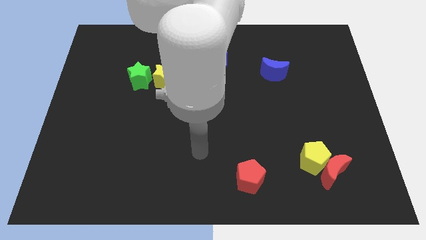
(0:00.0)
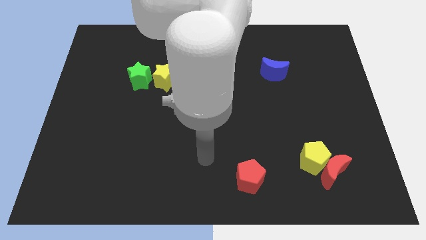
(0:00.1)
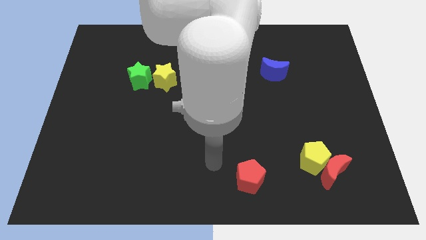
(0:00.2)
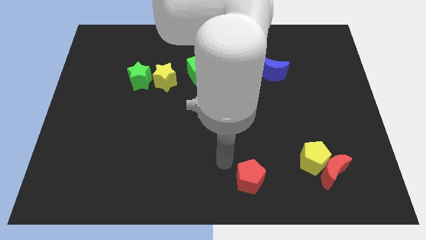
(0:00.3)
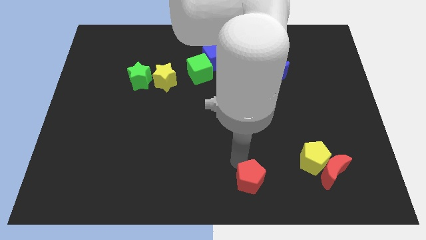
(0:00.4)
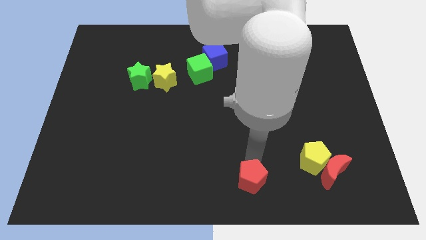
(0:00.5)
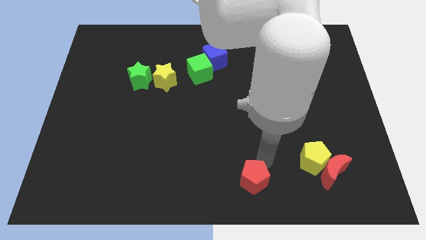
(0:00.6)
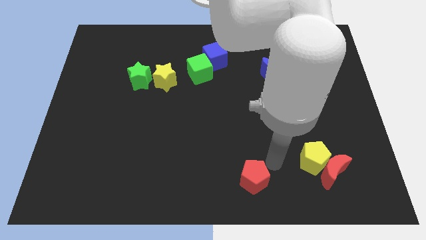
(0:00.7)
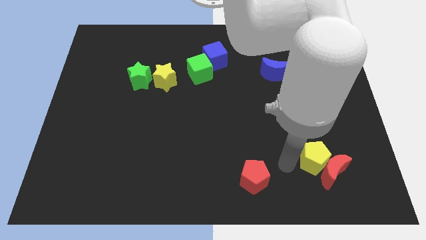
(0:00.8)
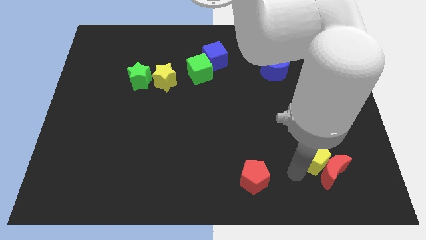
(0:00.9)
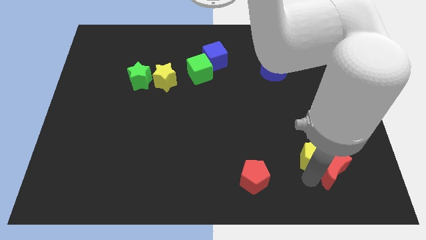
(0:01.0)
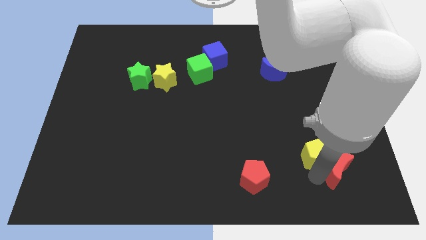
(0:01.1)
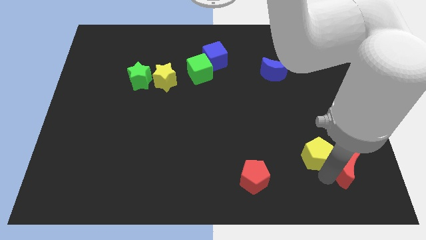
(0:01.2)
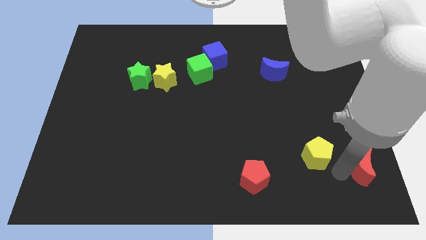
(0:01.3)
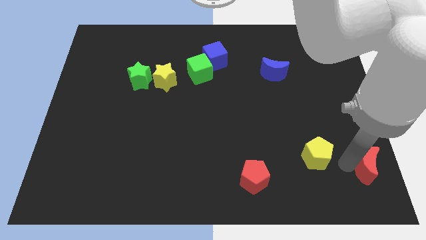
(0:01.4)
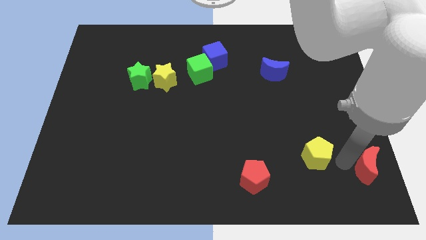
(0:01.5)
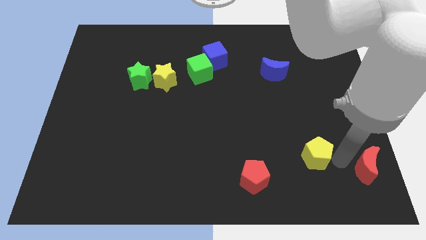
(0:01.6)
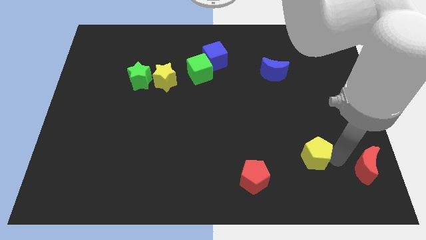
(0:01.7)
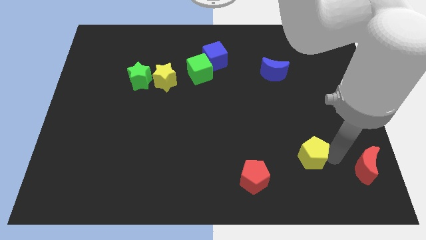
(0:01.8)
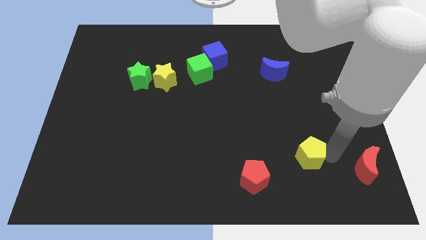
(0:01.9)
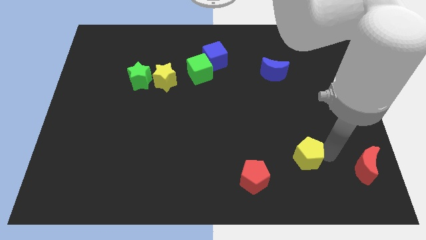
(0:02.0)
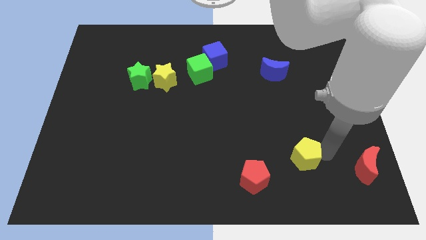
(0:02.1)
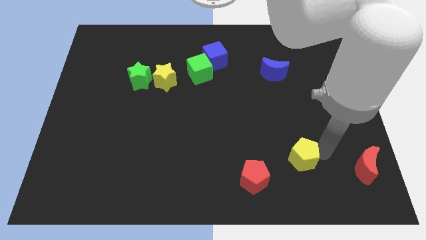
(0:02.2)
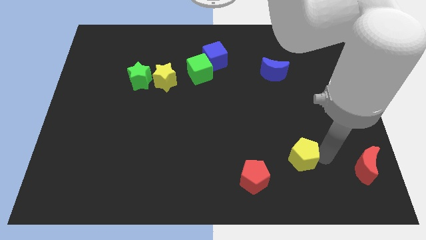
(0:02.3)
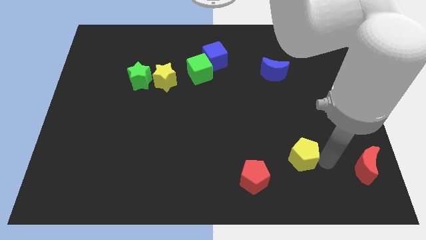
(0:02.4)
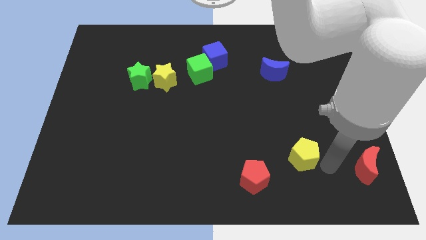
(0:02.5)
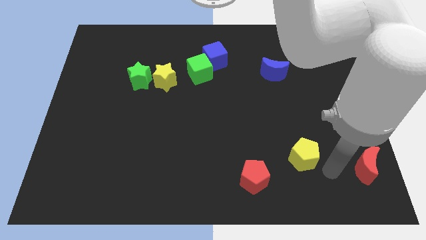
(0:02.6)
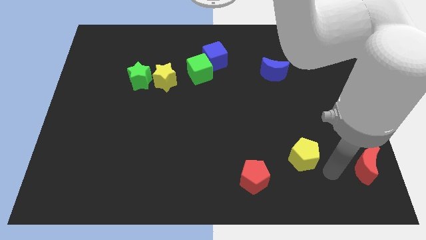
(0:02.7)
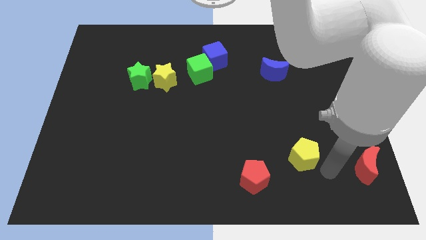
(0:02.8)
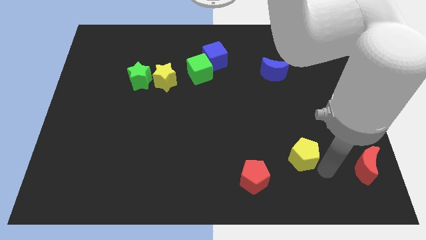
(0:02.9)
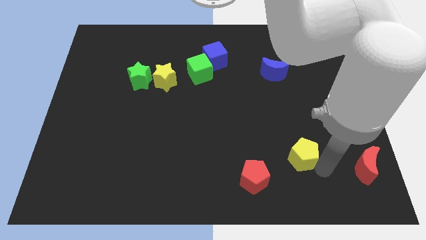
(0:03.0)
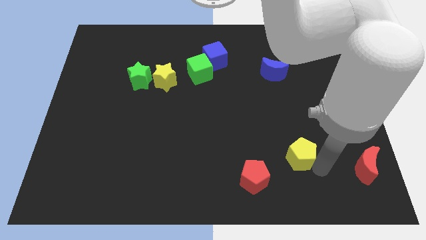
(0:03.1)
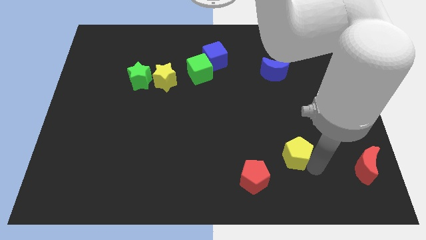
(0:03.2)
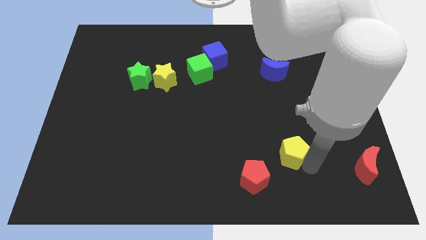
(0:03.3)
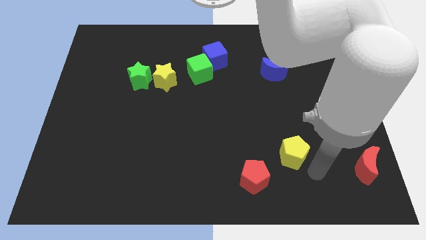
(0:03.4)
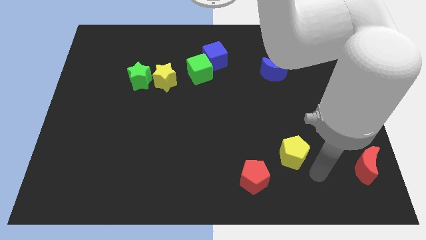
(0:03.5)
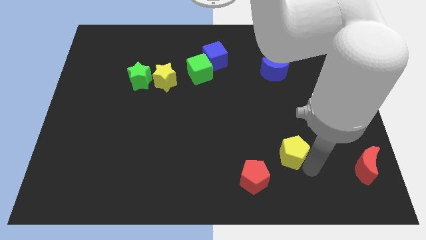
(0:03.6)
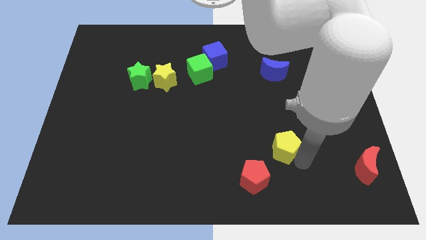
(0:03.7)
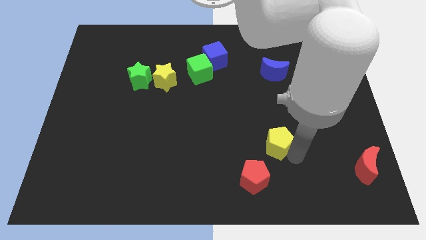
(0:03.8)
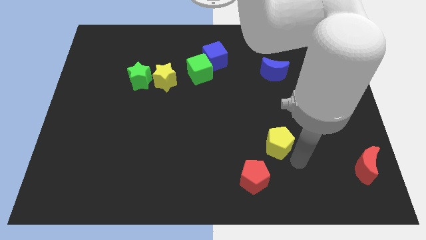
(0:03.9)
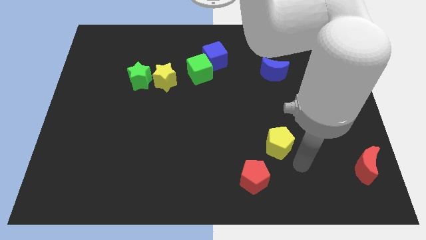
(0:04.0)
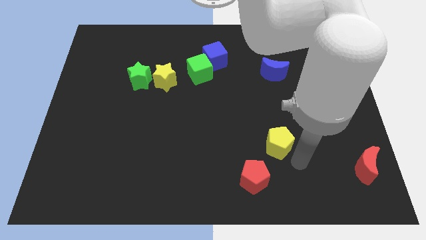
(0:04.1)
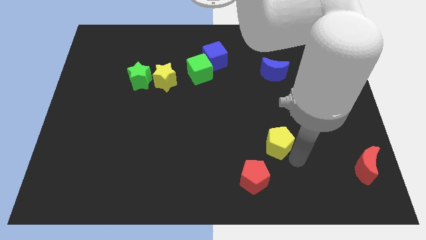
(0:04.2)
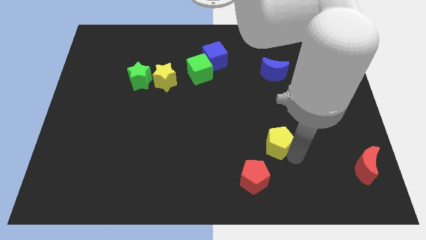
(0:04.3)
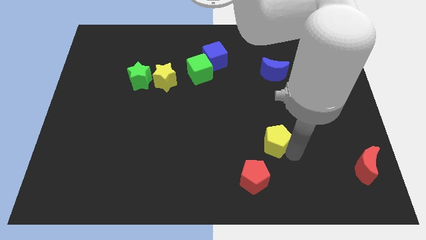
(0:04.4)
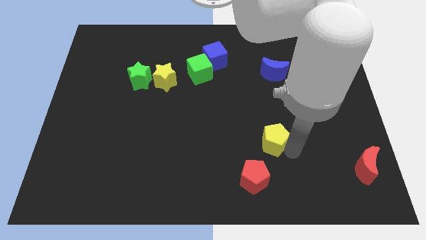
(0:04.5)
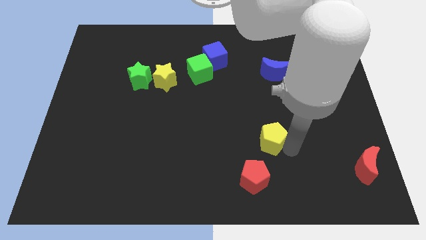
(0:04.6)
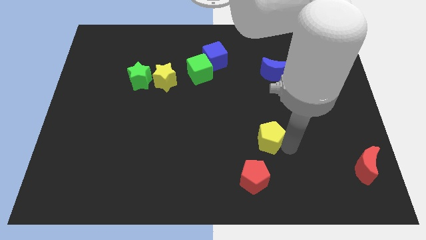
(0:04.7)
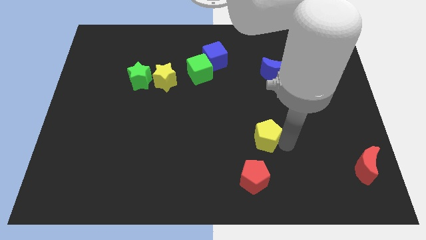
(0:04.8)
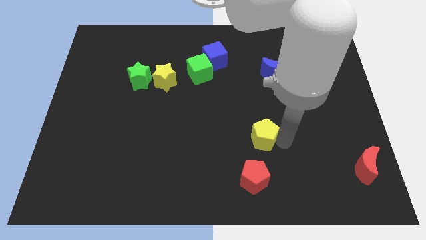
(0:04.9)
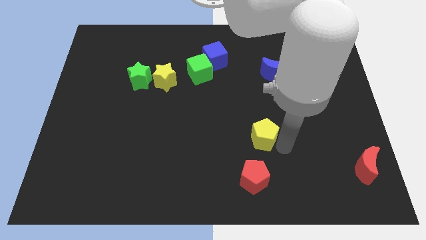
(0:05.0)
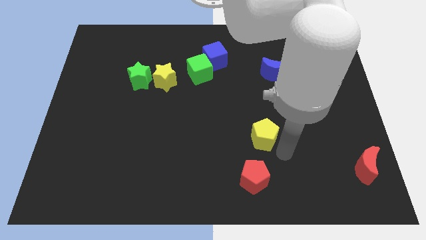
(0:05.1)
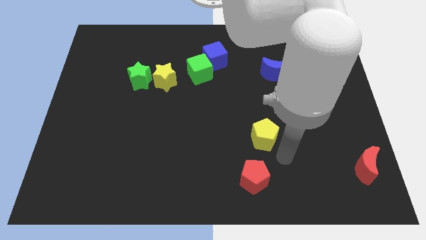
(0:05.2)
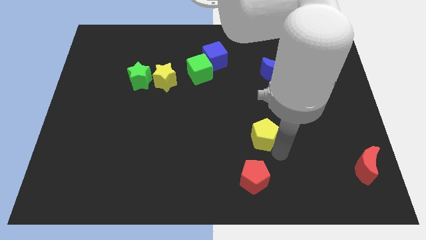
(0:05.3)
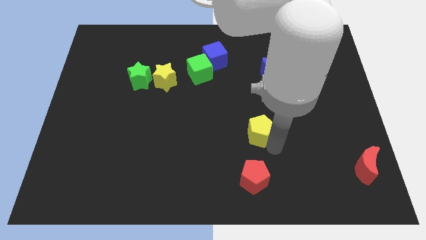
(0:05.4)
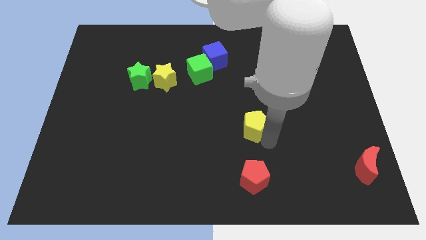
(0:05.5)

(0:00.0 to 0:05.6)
put the yellow pentagon to the middle

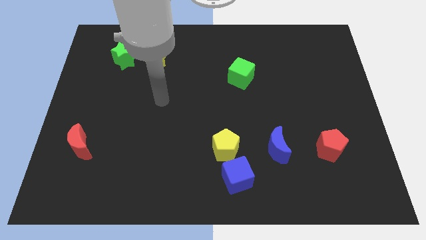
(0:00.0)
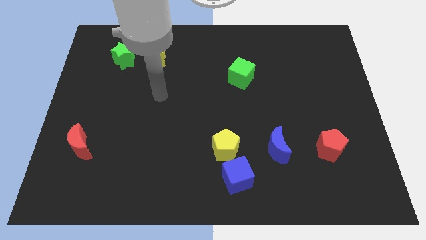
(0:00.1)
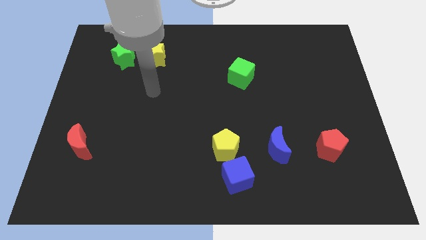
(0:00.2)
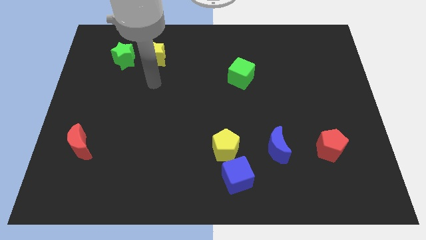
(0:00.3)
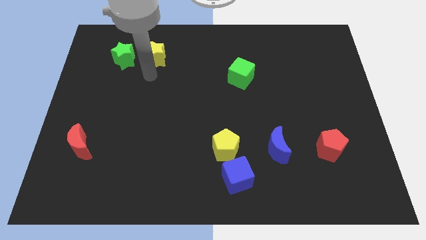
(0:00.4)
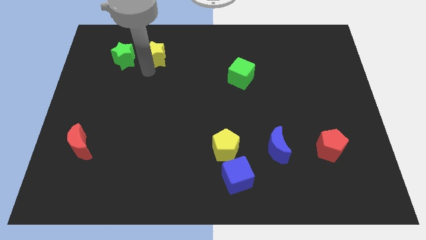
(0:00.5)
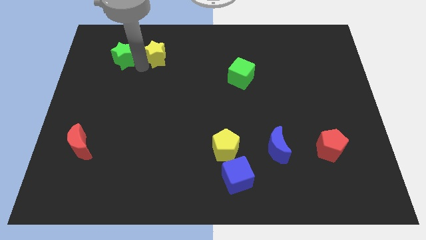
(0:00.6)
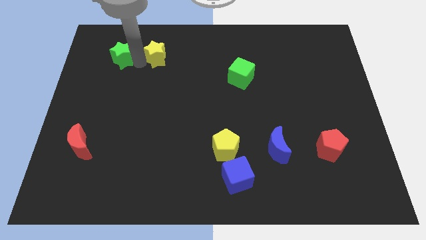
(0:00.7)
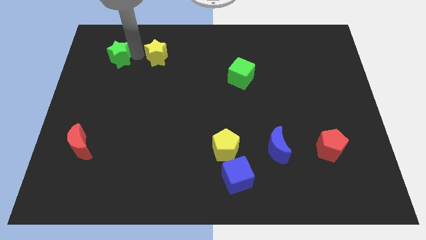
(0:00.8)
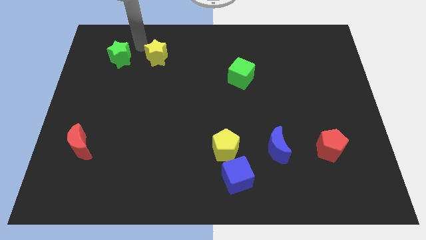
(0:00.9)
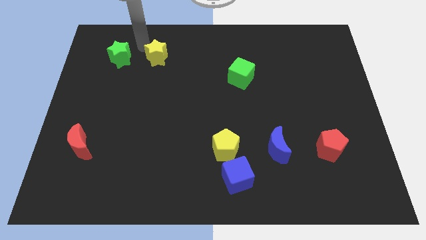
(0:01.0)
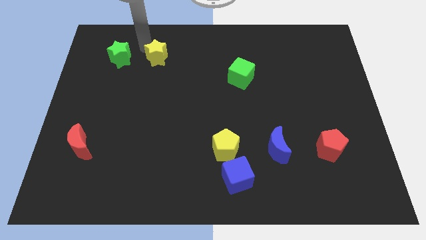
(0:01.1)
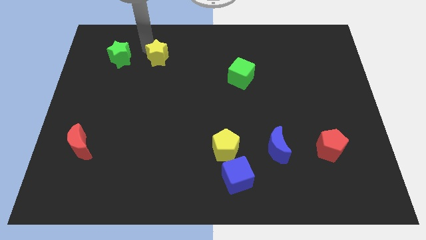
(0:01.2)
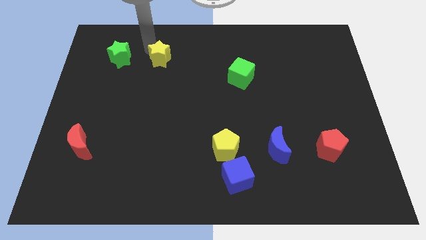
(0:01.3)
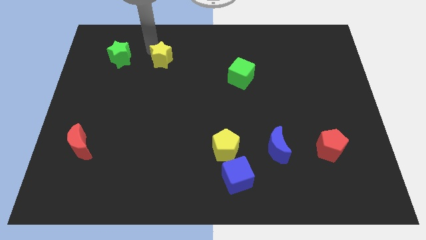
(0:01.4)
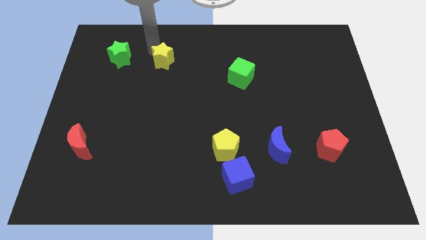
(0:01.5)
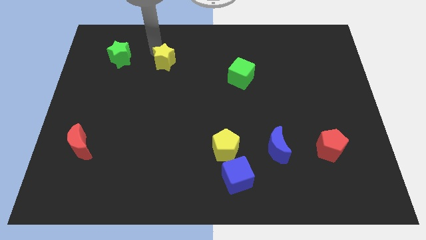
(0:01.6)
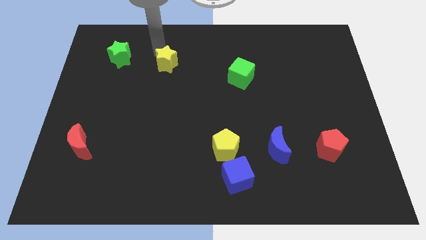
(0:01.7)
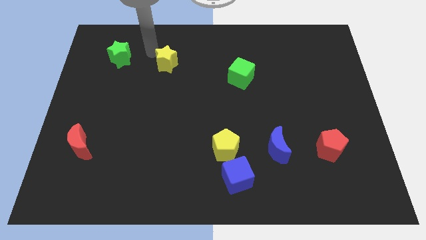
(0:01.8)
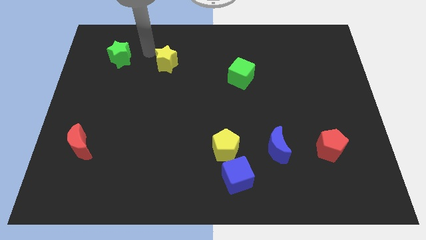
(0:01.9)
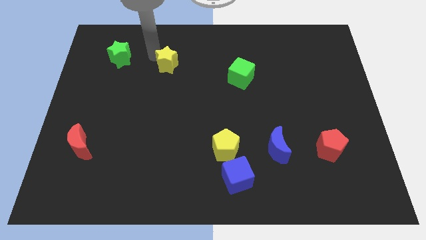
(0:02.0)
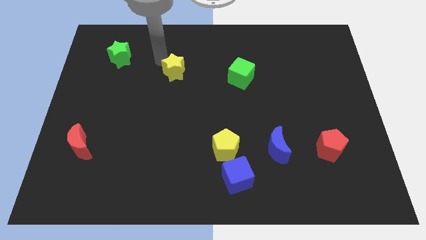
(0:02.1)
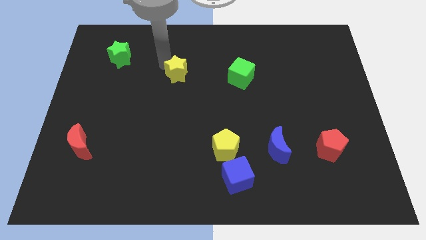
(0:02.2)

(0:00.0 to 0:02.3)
slide the yellow star to the middle of the board
